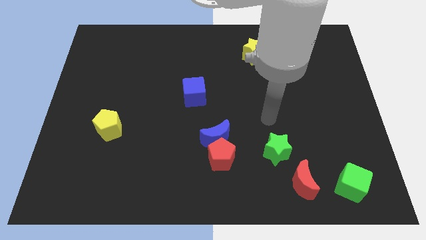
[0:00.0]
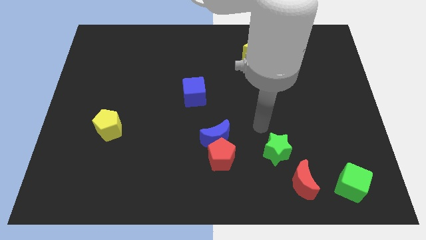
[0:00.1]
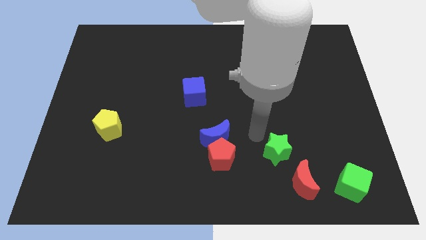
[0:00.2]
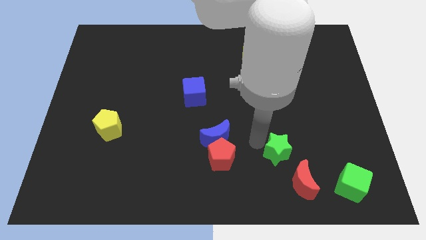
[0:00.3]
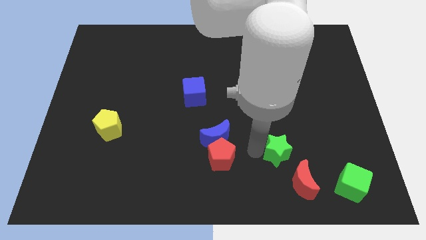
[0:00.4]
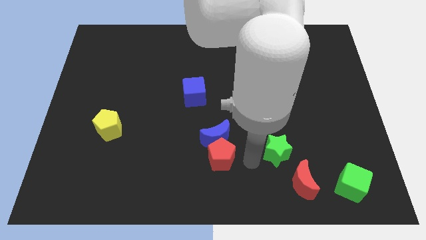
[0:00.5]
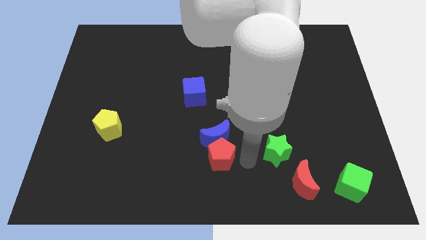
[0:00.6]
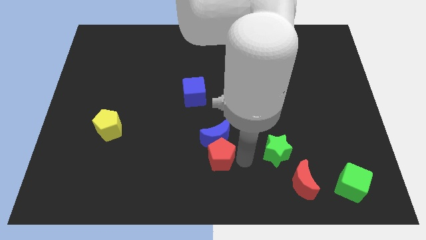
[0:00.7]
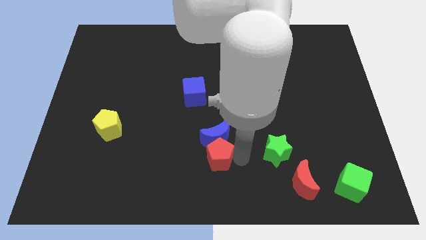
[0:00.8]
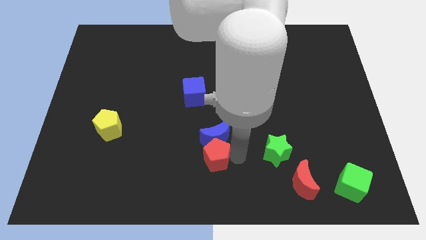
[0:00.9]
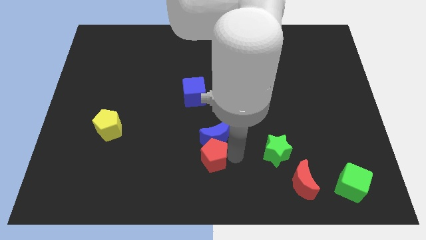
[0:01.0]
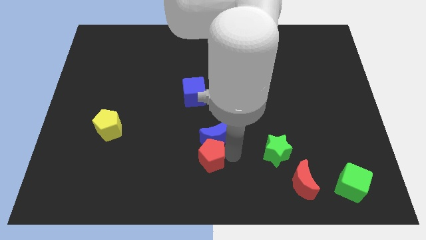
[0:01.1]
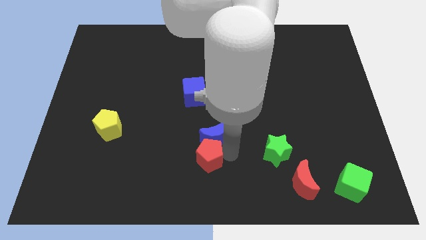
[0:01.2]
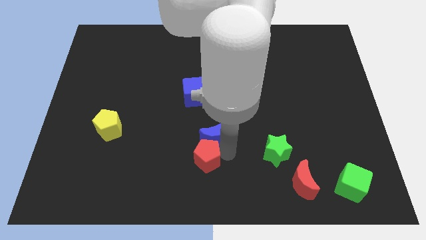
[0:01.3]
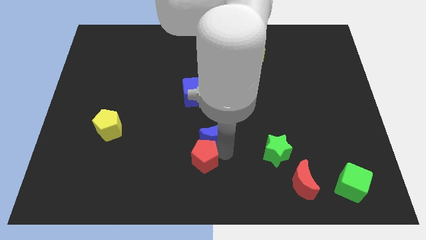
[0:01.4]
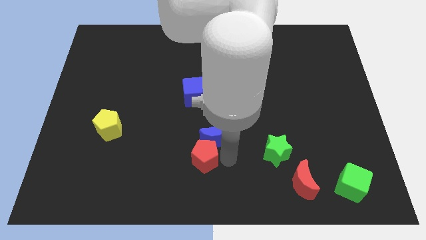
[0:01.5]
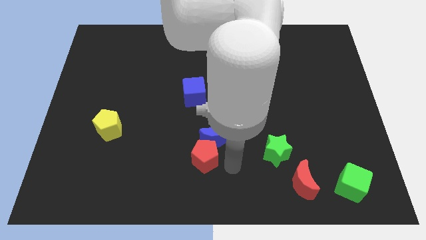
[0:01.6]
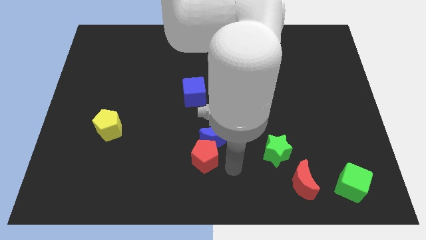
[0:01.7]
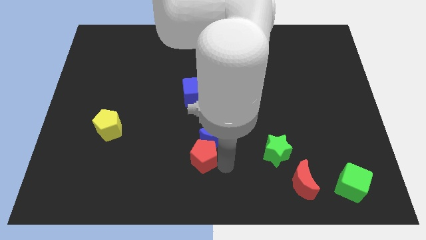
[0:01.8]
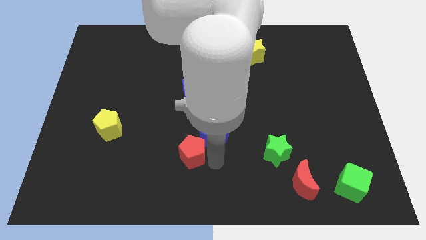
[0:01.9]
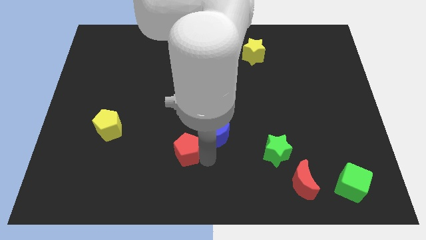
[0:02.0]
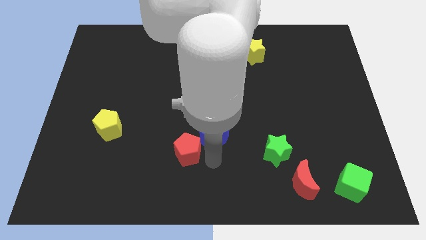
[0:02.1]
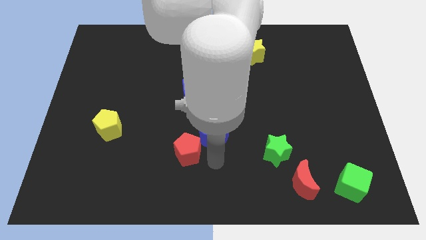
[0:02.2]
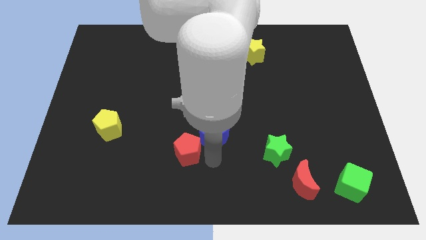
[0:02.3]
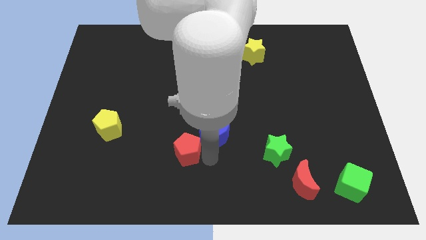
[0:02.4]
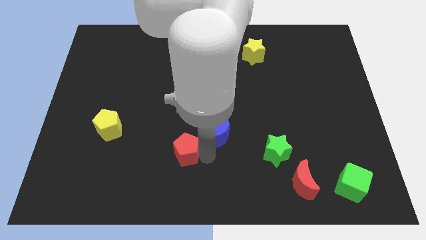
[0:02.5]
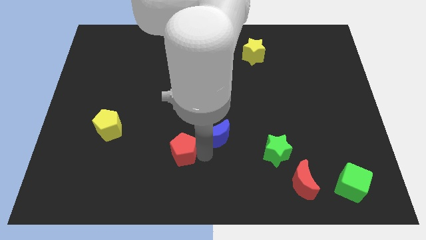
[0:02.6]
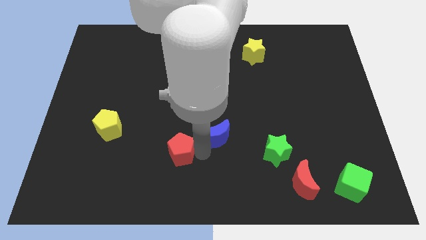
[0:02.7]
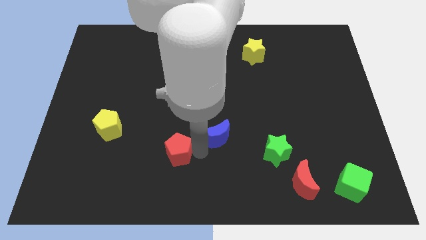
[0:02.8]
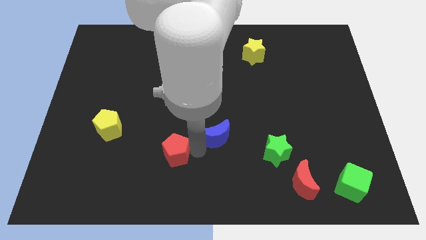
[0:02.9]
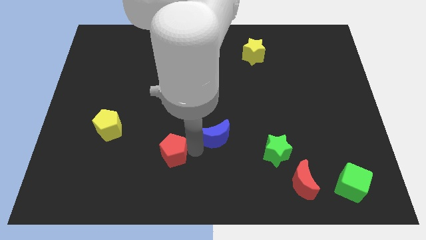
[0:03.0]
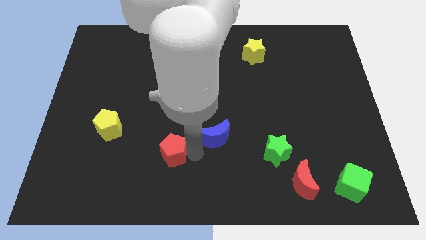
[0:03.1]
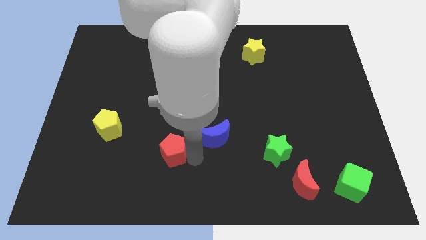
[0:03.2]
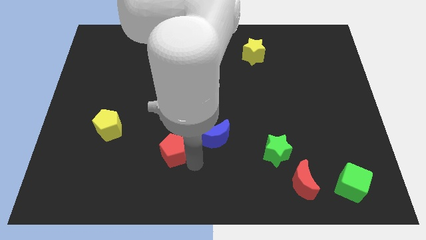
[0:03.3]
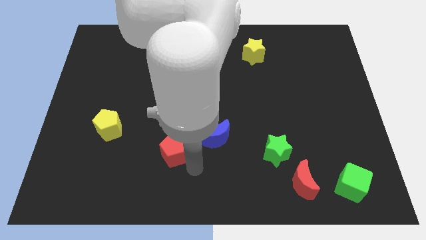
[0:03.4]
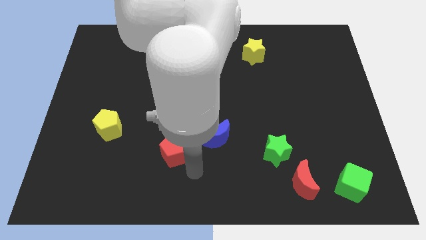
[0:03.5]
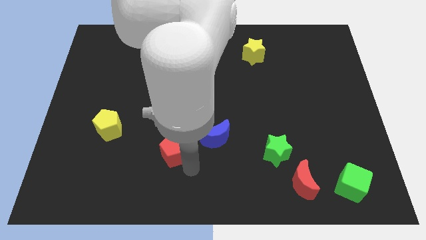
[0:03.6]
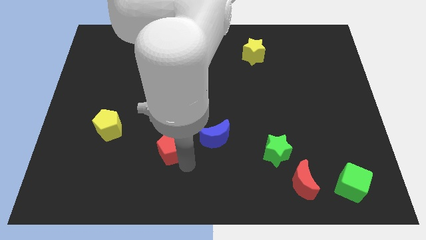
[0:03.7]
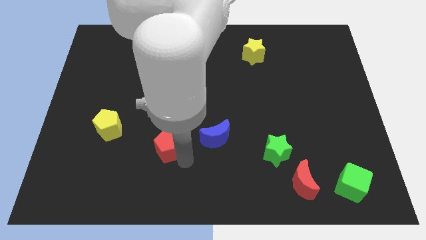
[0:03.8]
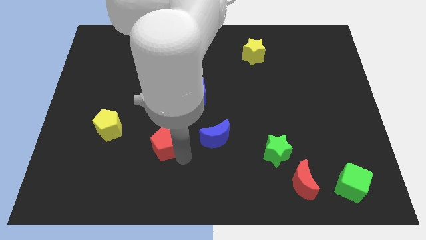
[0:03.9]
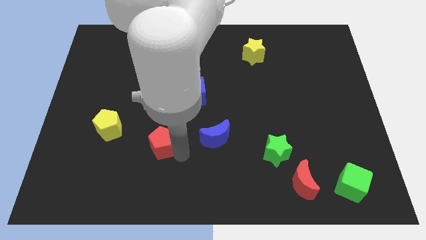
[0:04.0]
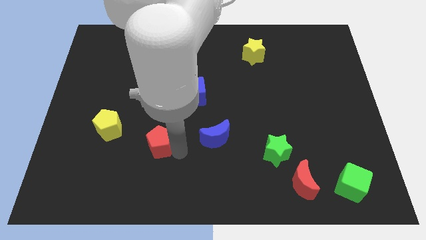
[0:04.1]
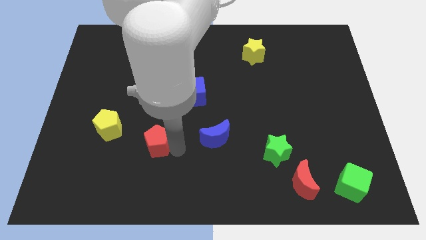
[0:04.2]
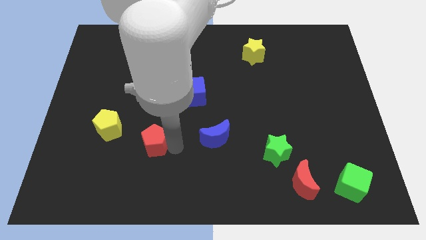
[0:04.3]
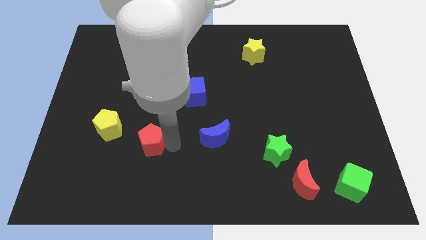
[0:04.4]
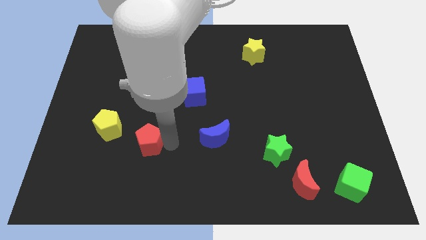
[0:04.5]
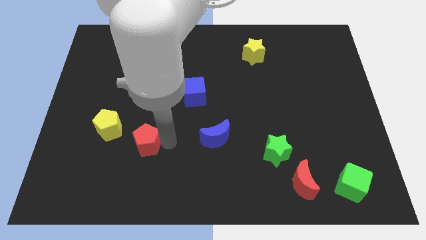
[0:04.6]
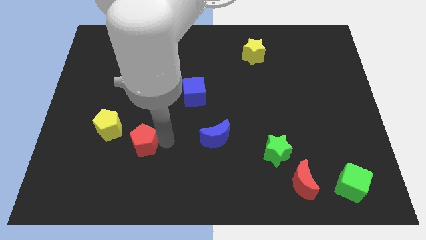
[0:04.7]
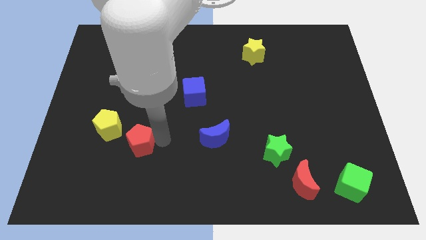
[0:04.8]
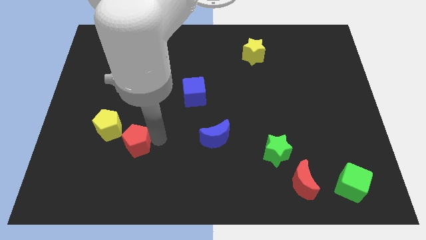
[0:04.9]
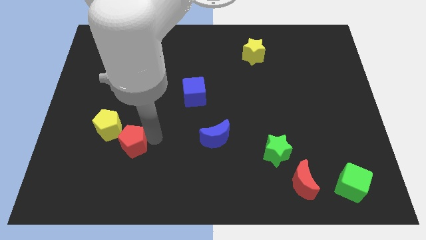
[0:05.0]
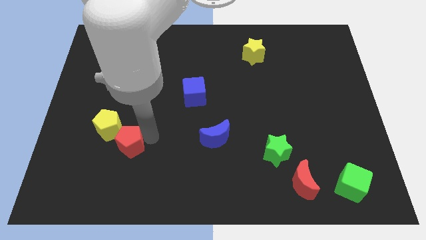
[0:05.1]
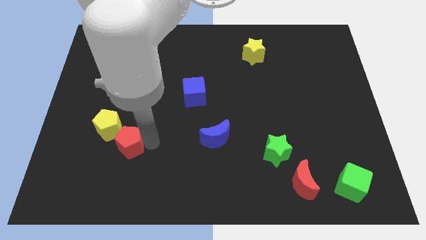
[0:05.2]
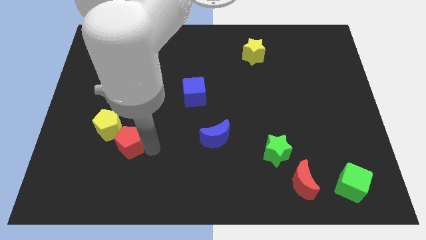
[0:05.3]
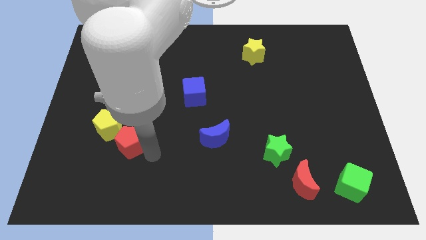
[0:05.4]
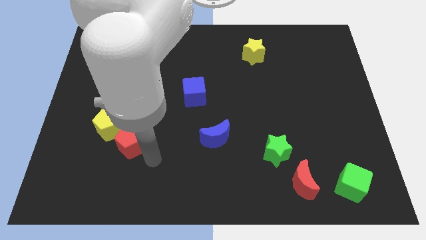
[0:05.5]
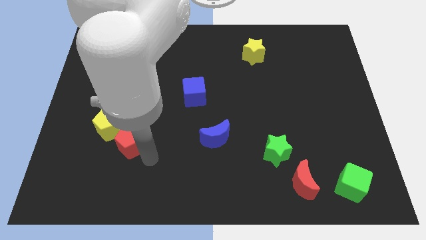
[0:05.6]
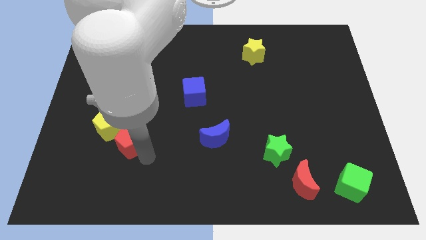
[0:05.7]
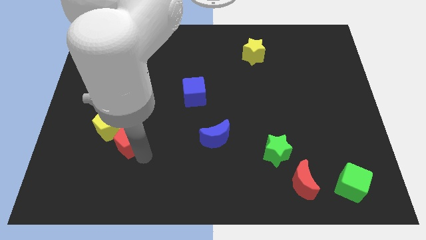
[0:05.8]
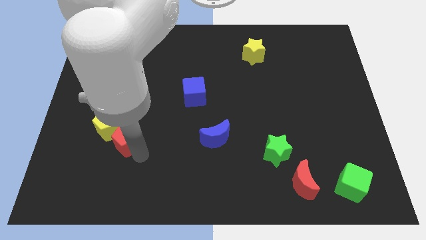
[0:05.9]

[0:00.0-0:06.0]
put the red pentagon towards the yellow pentagon

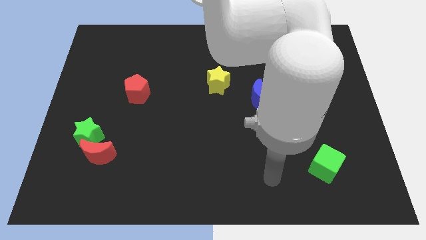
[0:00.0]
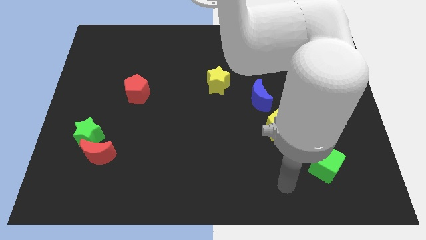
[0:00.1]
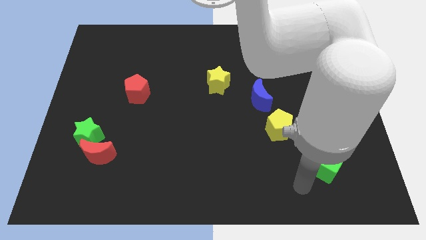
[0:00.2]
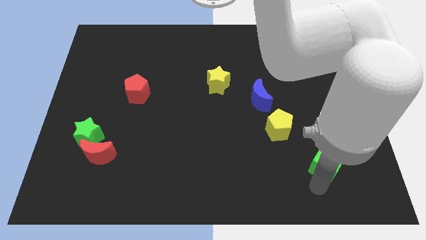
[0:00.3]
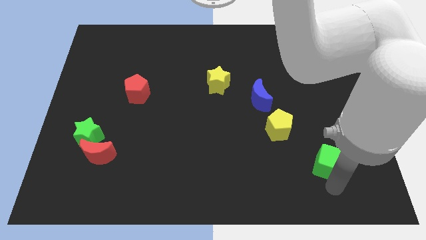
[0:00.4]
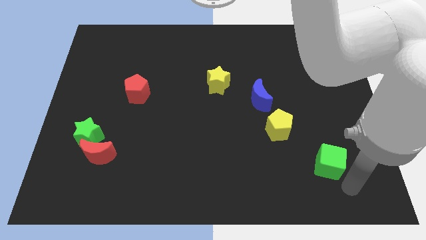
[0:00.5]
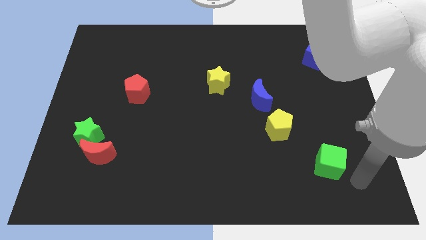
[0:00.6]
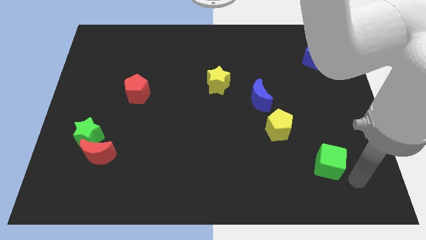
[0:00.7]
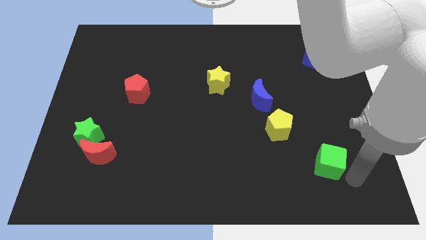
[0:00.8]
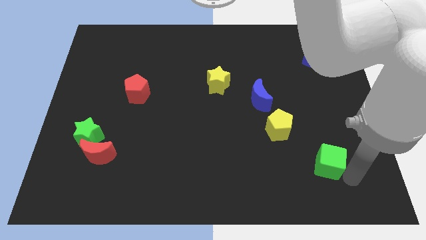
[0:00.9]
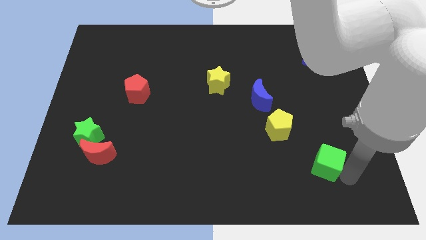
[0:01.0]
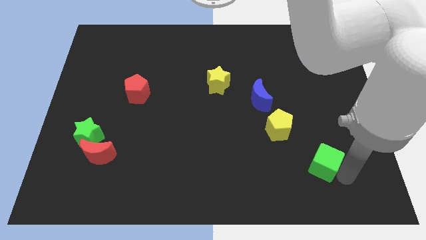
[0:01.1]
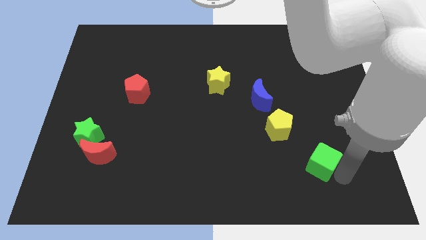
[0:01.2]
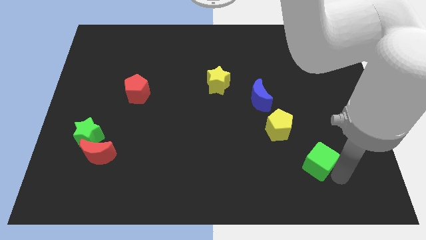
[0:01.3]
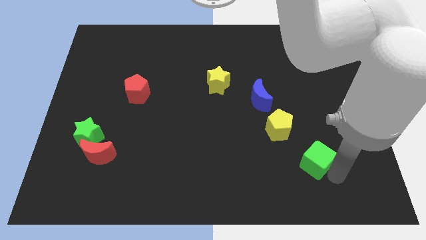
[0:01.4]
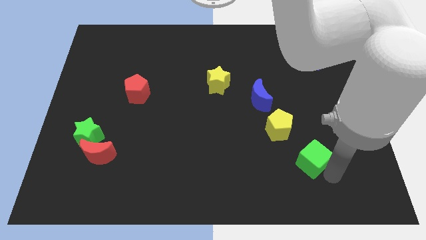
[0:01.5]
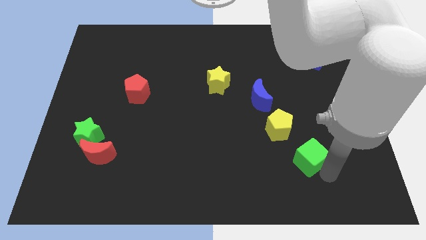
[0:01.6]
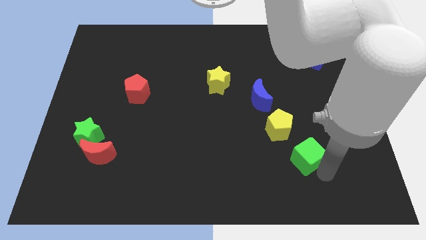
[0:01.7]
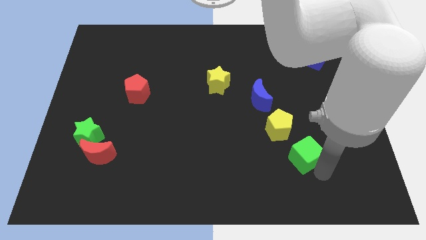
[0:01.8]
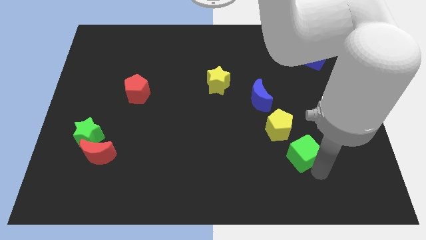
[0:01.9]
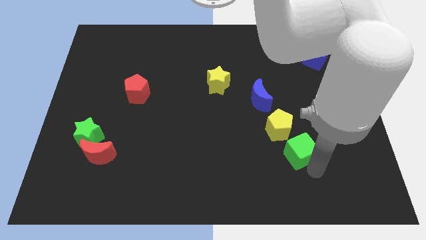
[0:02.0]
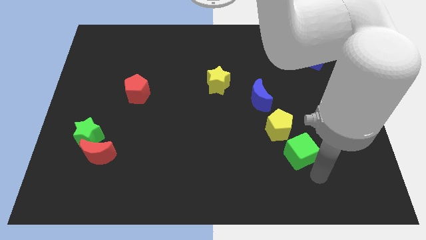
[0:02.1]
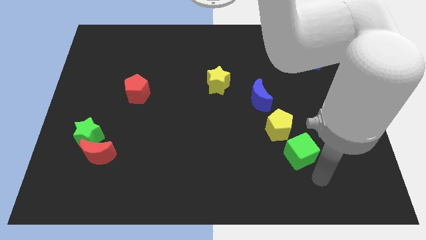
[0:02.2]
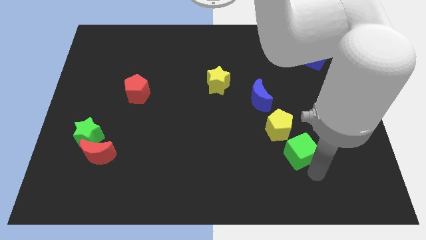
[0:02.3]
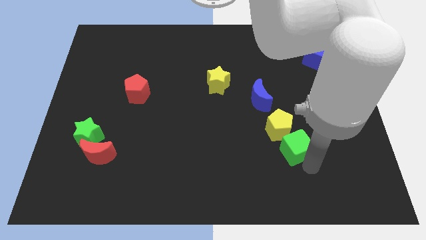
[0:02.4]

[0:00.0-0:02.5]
push the green cube next to the yellow pentagon
